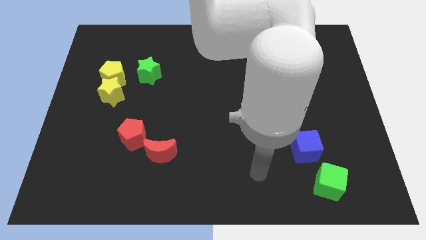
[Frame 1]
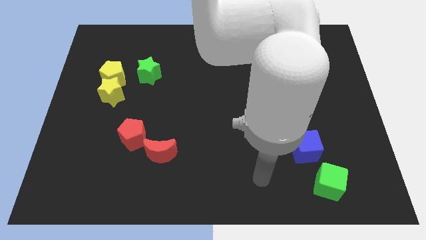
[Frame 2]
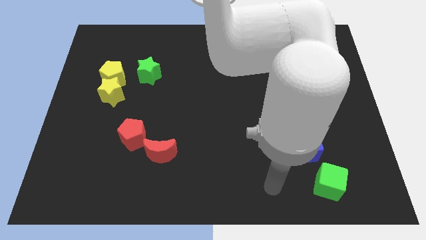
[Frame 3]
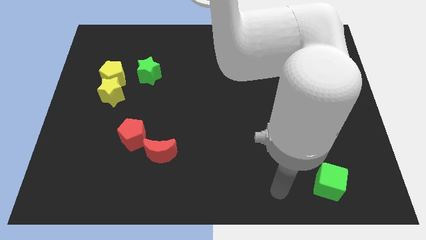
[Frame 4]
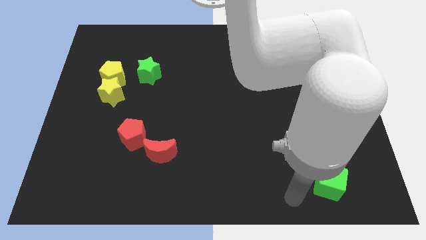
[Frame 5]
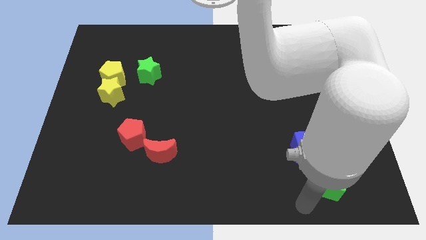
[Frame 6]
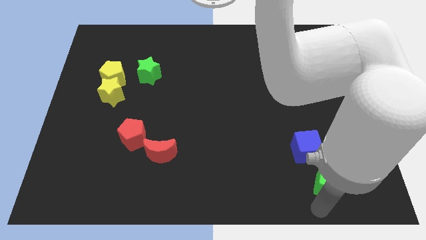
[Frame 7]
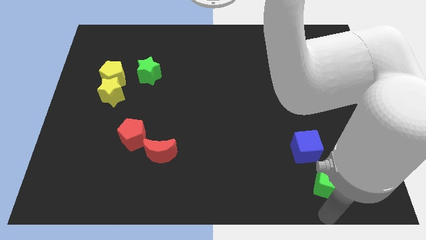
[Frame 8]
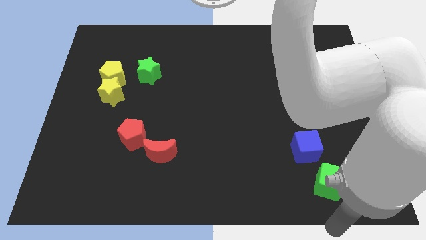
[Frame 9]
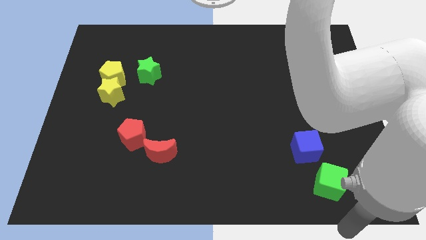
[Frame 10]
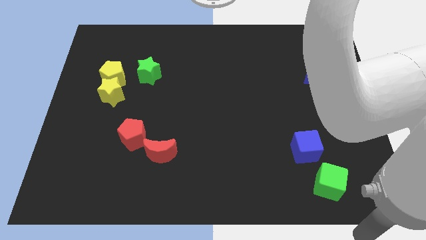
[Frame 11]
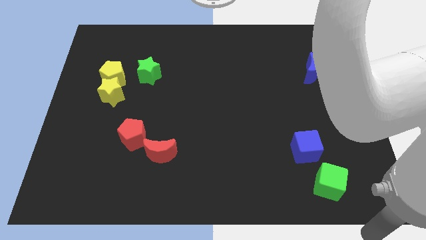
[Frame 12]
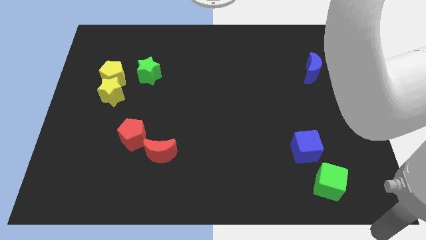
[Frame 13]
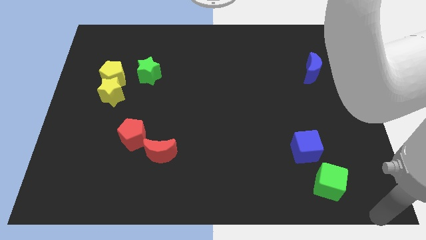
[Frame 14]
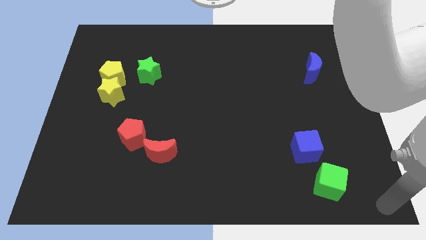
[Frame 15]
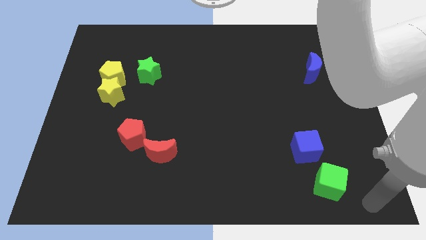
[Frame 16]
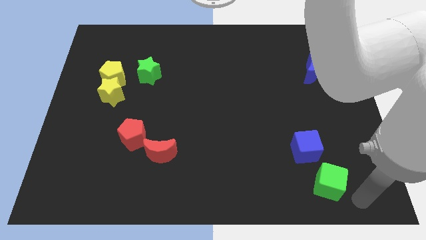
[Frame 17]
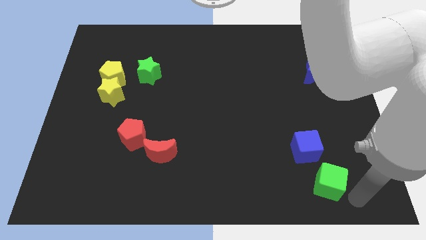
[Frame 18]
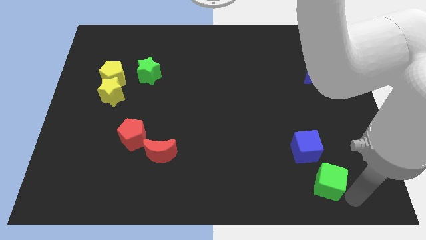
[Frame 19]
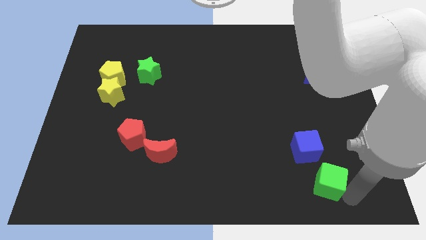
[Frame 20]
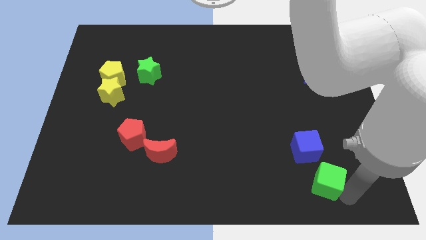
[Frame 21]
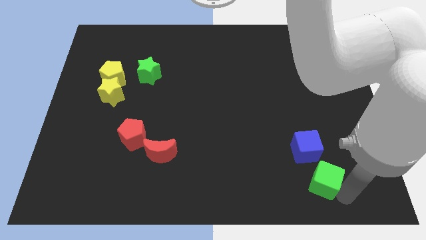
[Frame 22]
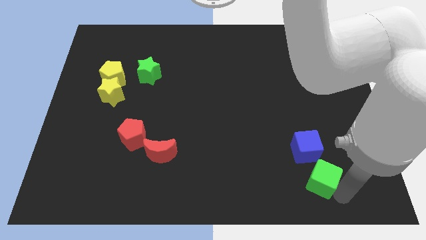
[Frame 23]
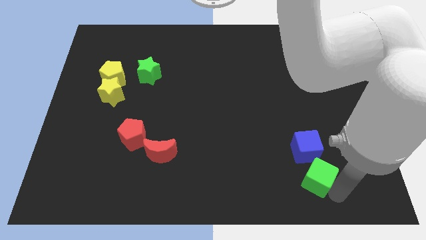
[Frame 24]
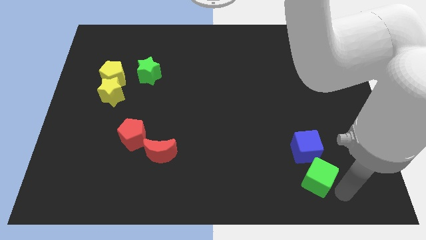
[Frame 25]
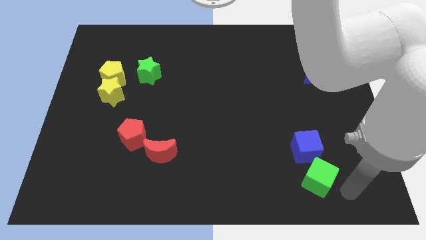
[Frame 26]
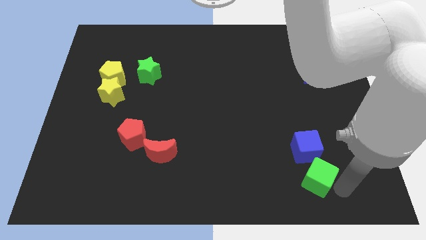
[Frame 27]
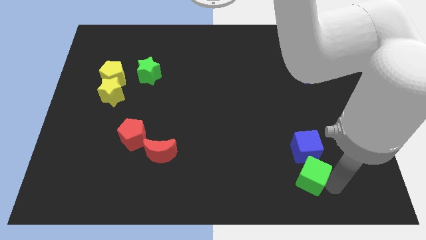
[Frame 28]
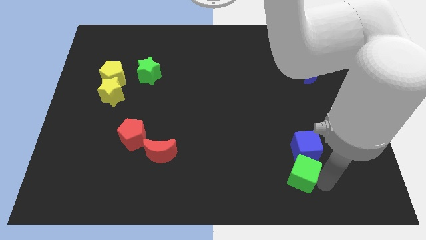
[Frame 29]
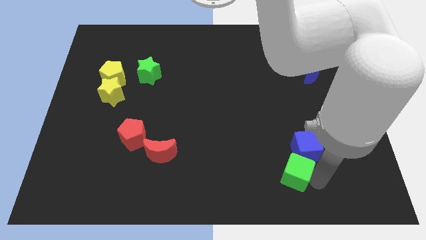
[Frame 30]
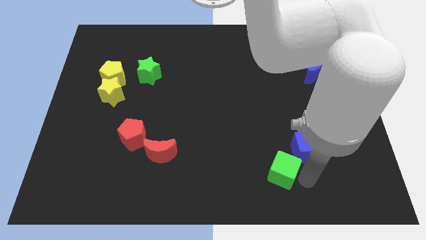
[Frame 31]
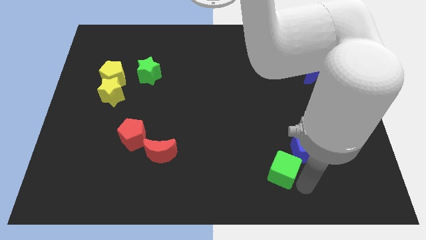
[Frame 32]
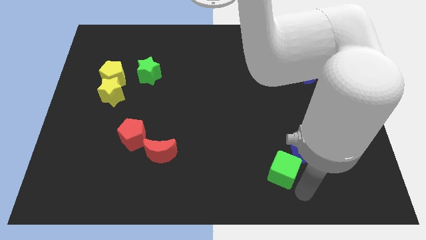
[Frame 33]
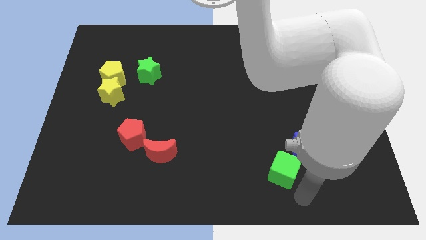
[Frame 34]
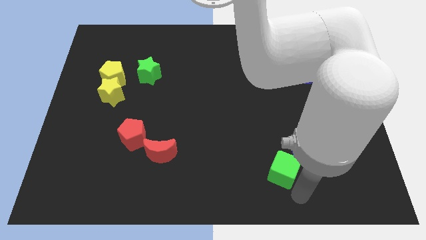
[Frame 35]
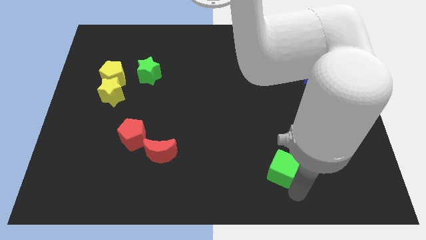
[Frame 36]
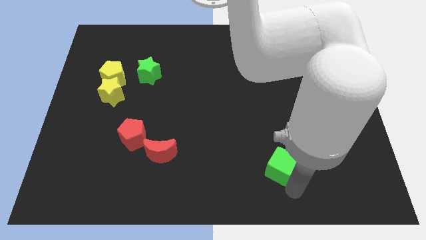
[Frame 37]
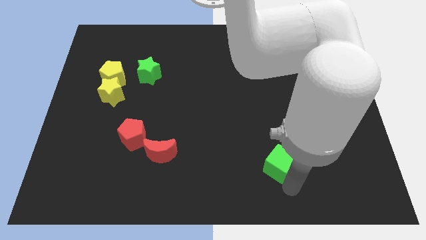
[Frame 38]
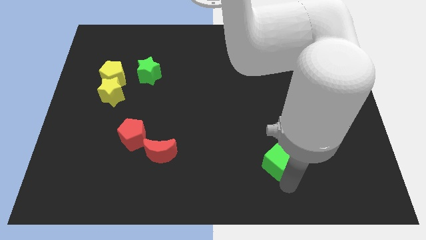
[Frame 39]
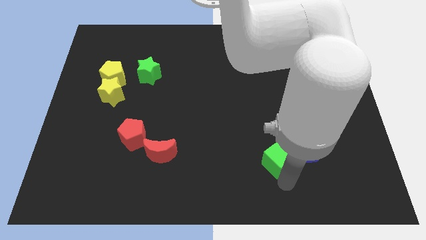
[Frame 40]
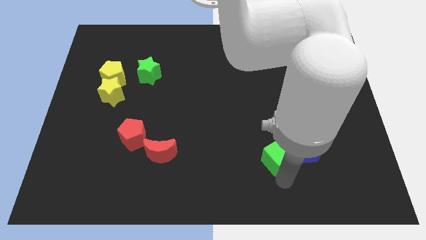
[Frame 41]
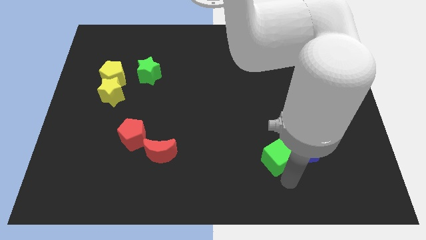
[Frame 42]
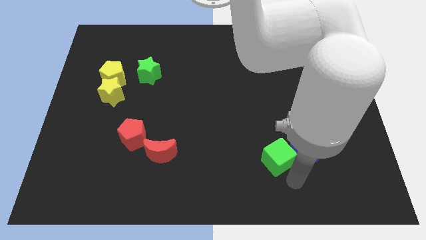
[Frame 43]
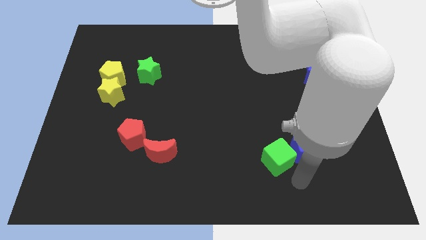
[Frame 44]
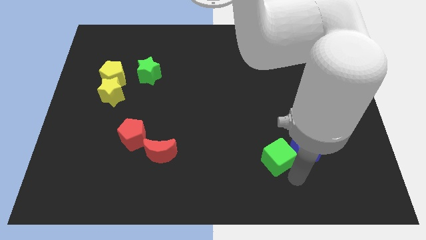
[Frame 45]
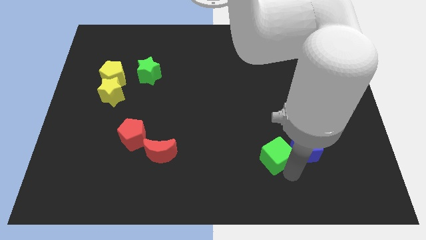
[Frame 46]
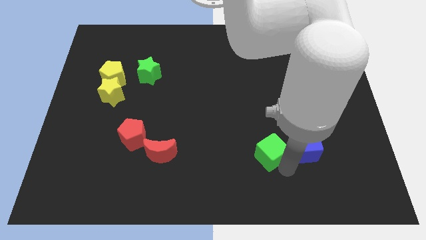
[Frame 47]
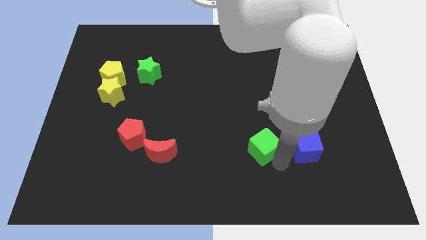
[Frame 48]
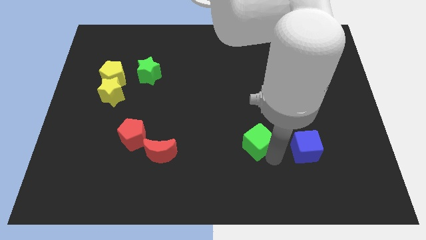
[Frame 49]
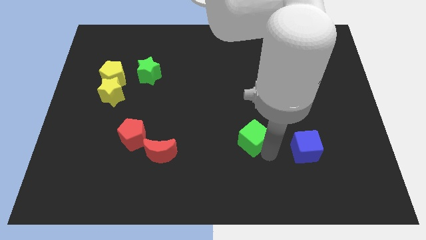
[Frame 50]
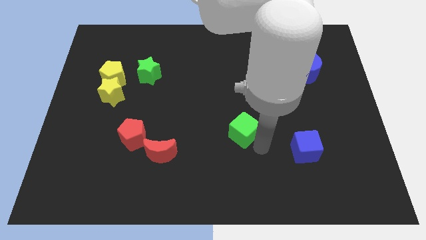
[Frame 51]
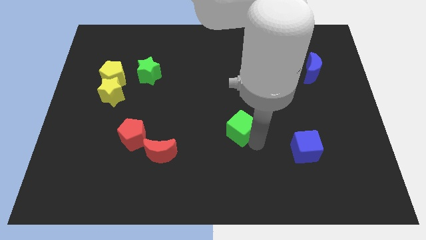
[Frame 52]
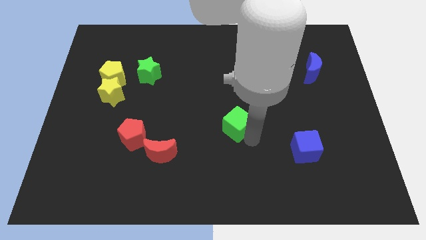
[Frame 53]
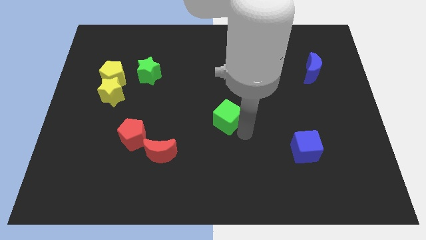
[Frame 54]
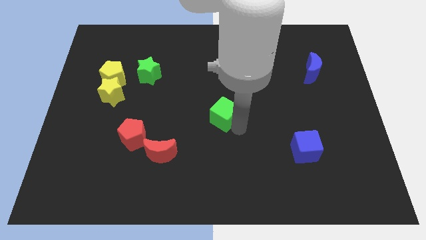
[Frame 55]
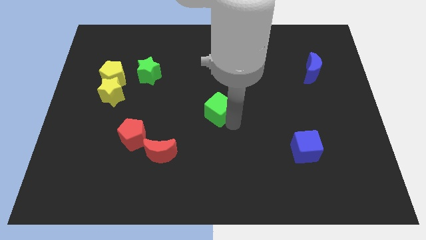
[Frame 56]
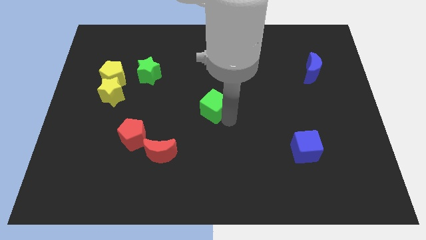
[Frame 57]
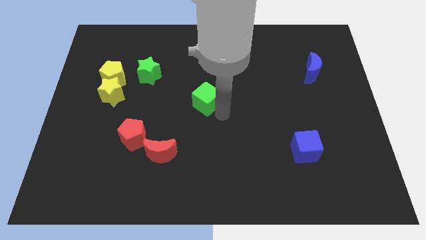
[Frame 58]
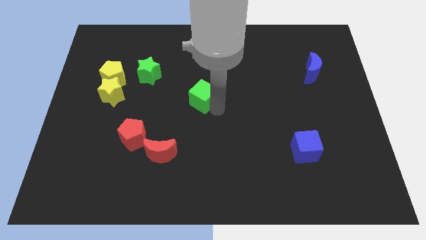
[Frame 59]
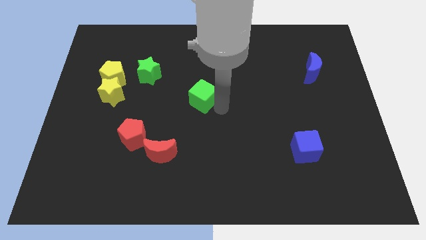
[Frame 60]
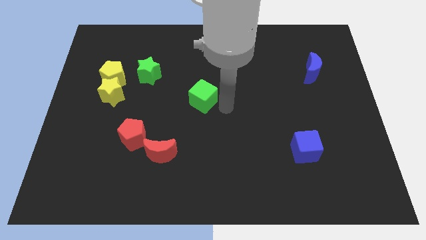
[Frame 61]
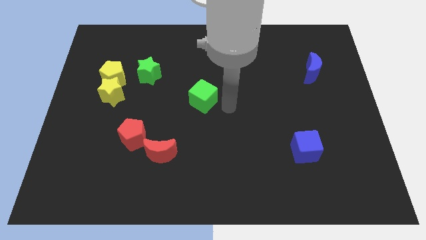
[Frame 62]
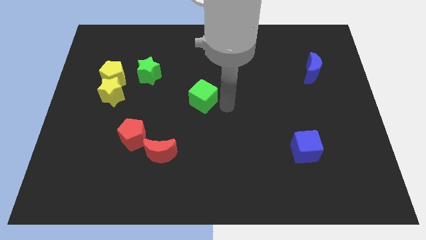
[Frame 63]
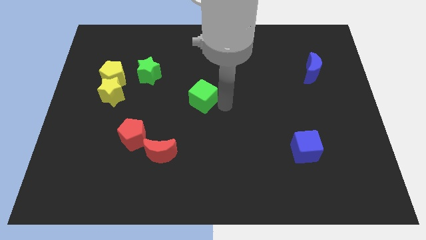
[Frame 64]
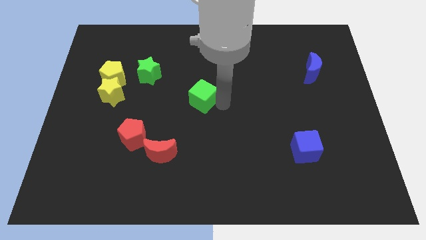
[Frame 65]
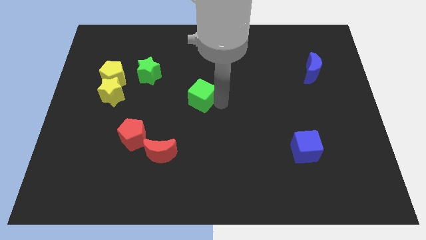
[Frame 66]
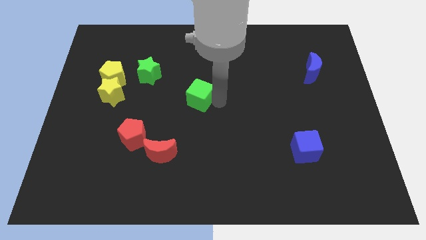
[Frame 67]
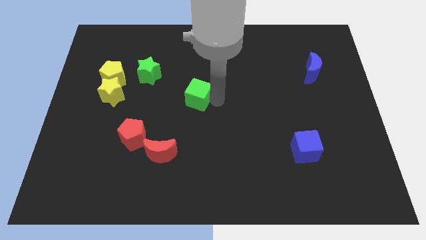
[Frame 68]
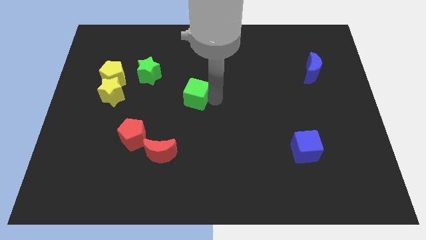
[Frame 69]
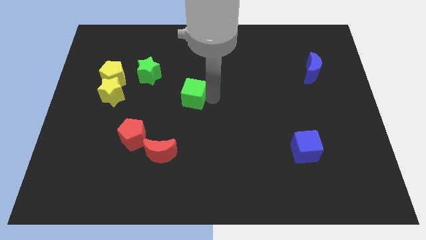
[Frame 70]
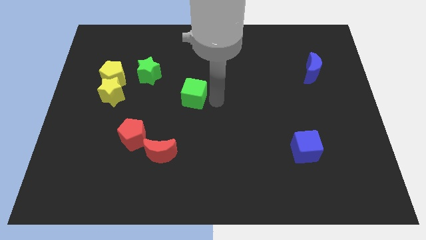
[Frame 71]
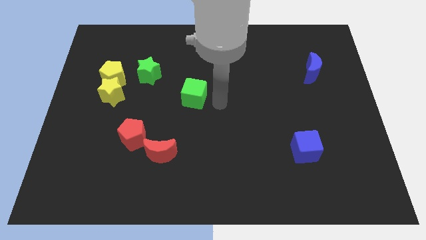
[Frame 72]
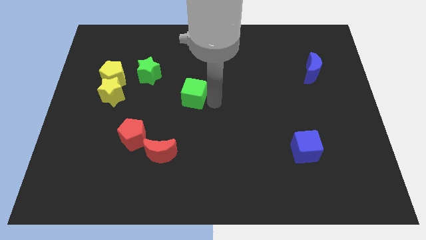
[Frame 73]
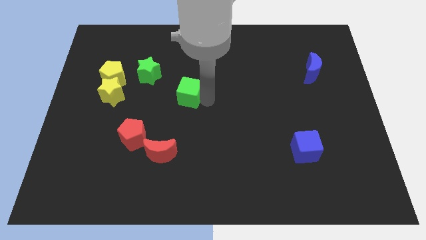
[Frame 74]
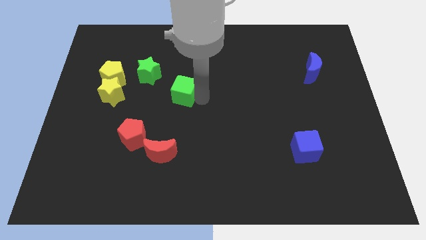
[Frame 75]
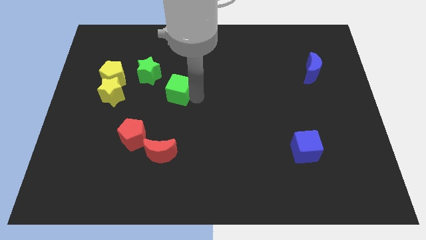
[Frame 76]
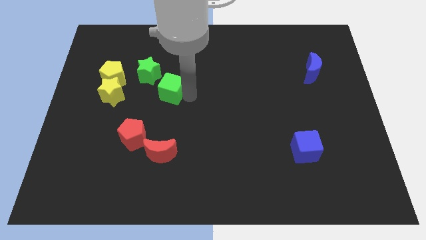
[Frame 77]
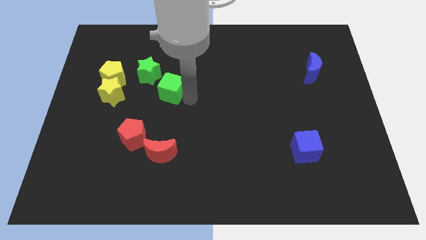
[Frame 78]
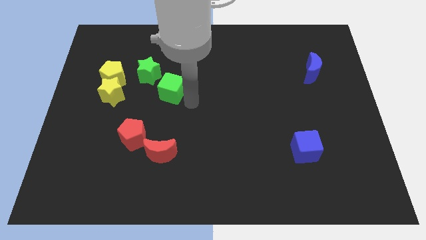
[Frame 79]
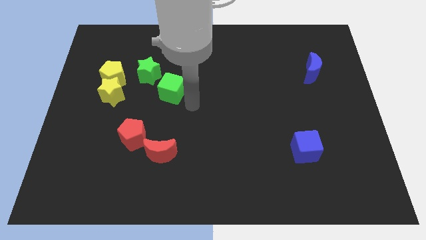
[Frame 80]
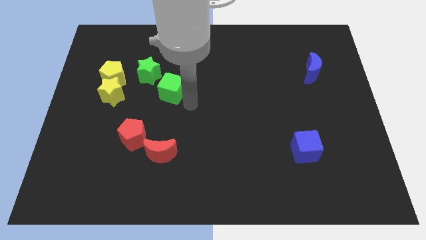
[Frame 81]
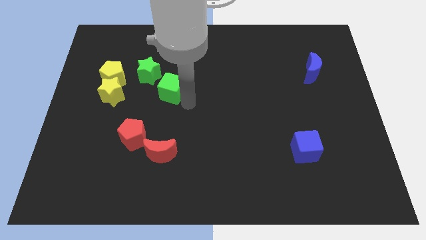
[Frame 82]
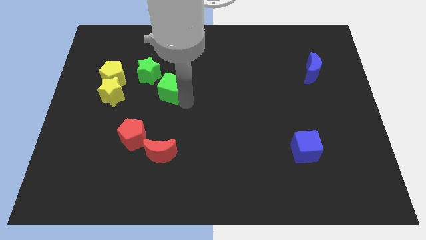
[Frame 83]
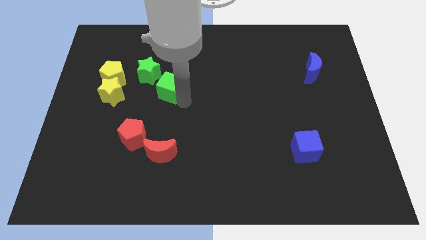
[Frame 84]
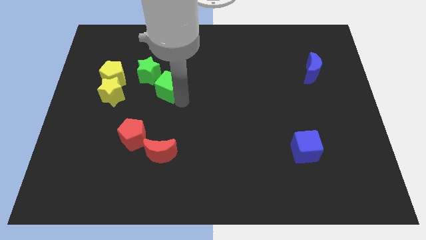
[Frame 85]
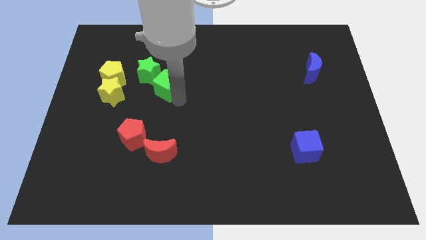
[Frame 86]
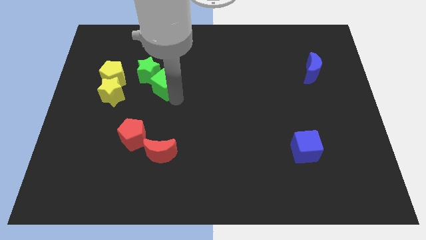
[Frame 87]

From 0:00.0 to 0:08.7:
slide the green cube towards the green star
